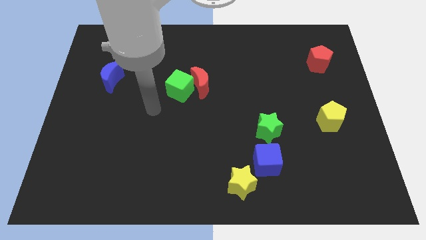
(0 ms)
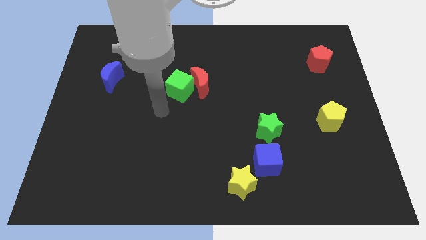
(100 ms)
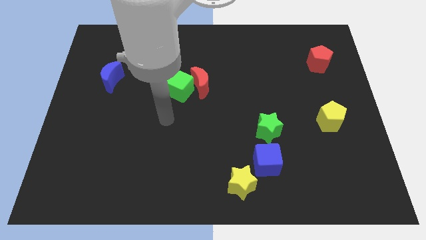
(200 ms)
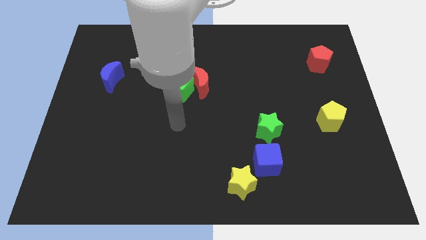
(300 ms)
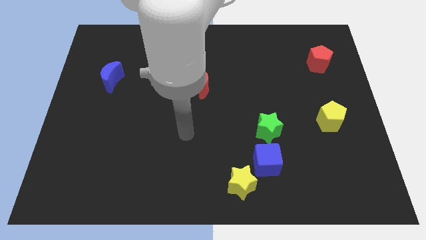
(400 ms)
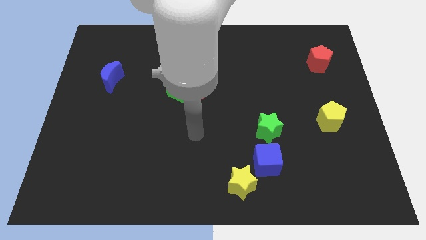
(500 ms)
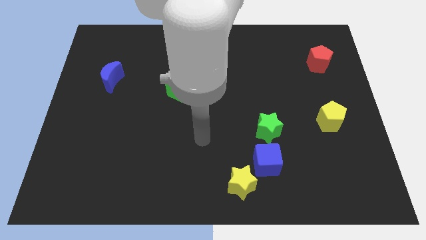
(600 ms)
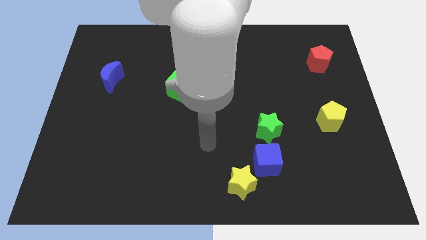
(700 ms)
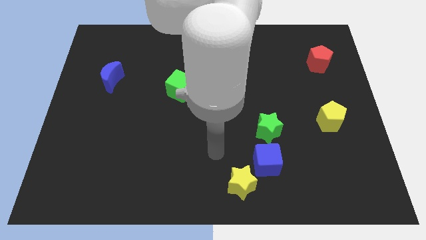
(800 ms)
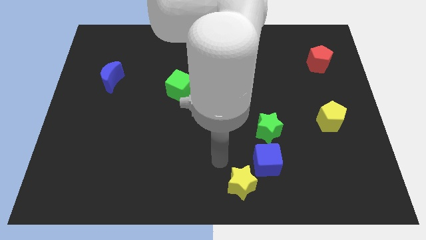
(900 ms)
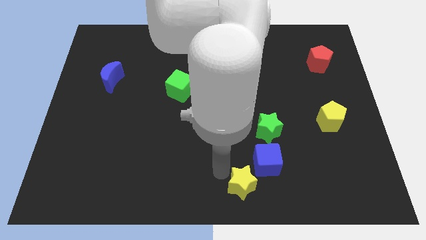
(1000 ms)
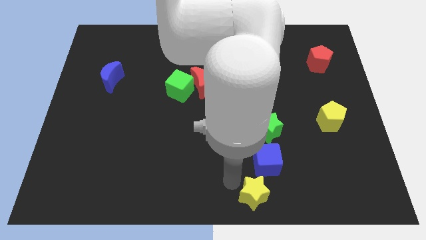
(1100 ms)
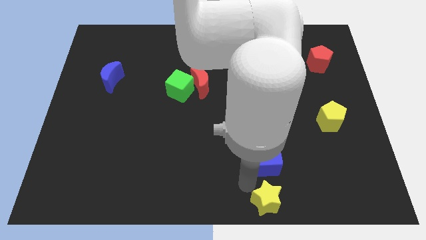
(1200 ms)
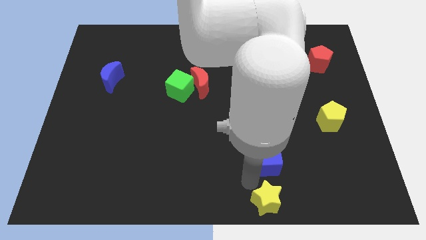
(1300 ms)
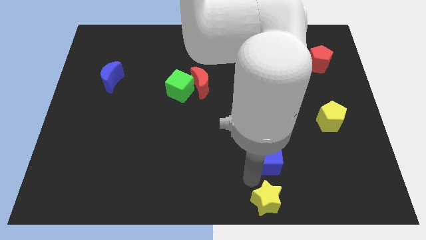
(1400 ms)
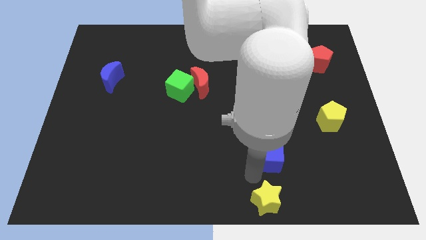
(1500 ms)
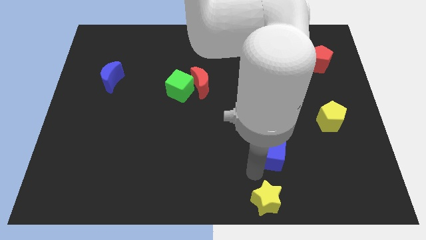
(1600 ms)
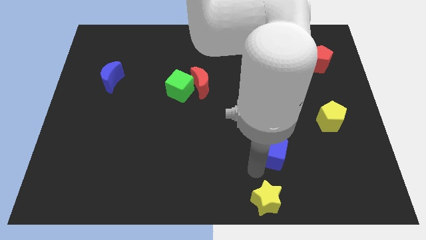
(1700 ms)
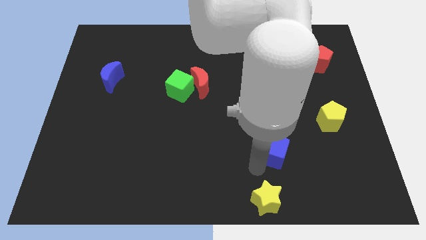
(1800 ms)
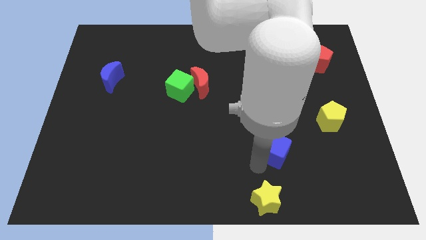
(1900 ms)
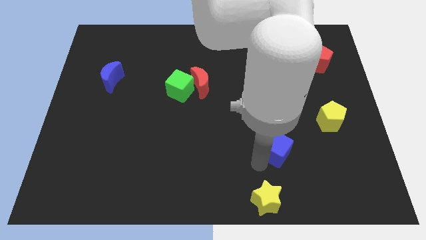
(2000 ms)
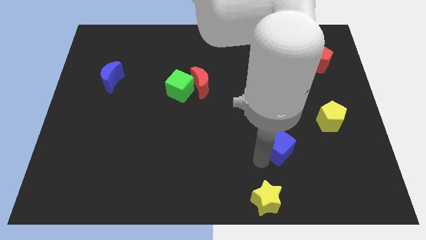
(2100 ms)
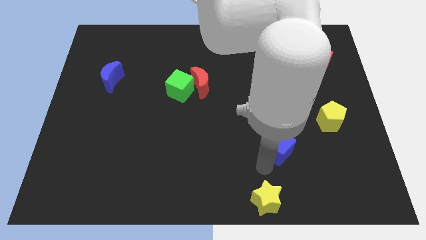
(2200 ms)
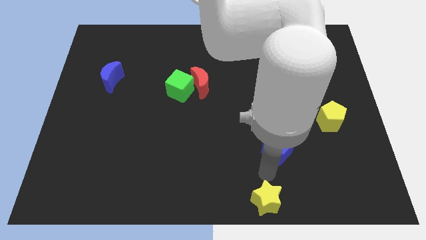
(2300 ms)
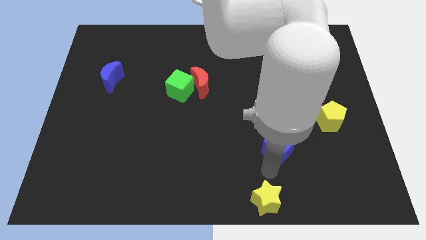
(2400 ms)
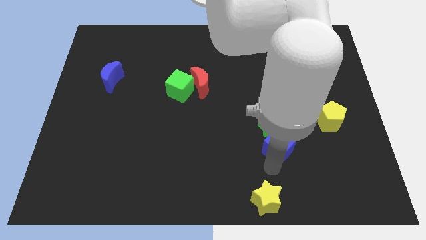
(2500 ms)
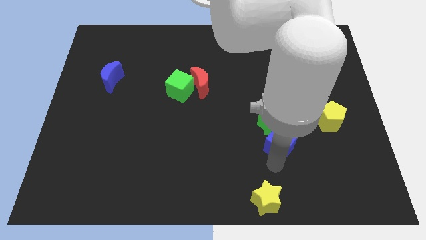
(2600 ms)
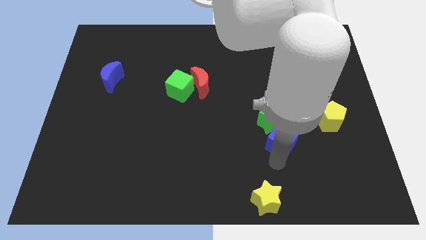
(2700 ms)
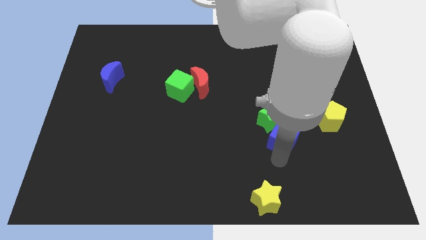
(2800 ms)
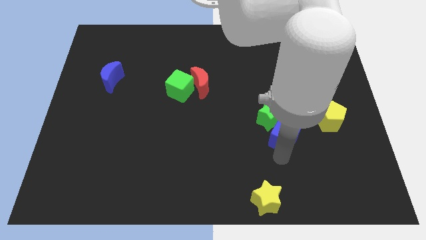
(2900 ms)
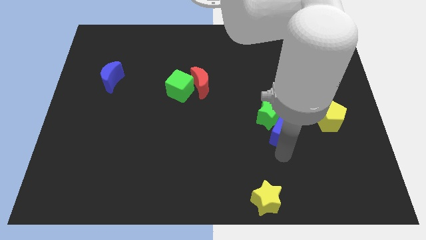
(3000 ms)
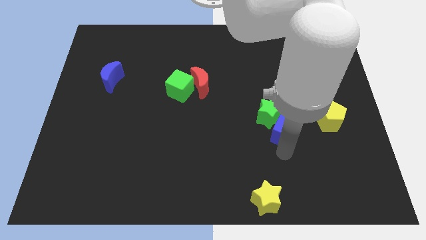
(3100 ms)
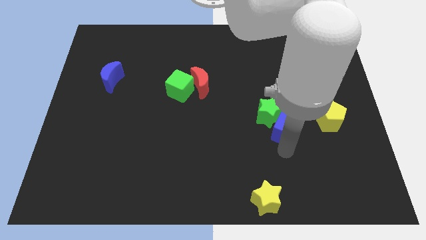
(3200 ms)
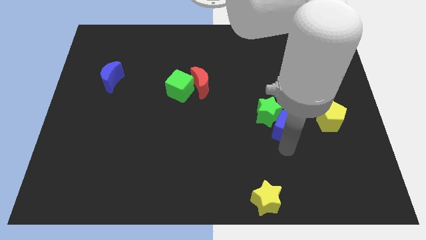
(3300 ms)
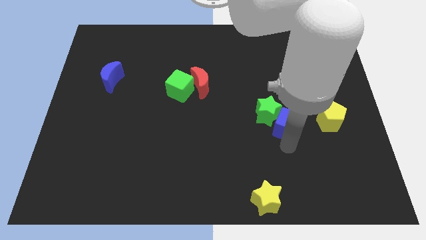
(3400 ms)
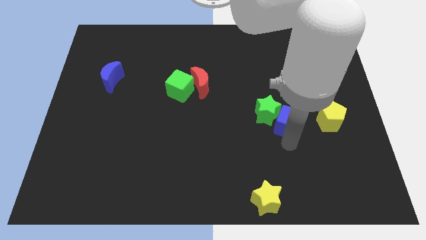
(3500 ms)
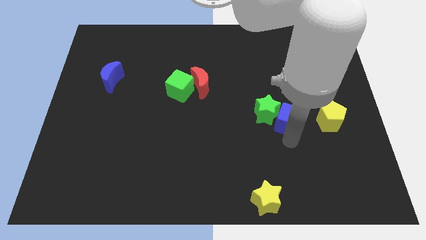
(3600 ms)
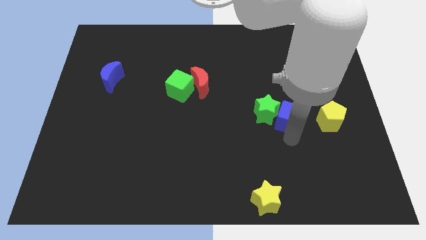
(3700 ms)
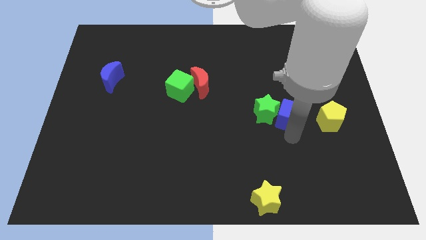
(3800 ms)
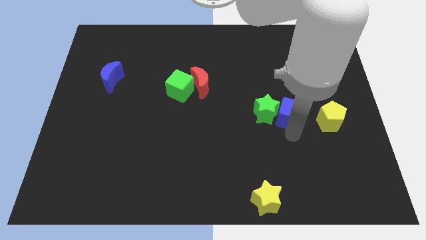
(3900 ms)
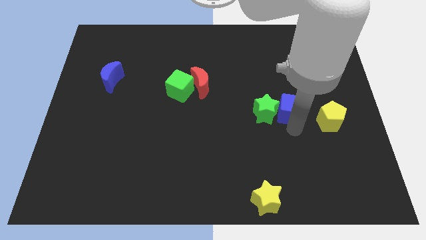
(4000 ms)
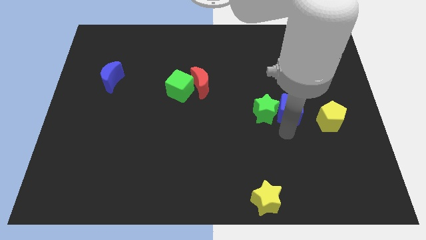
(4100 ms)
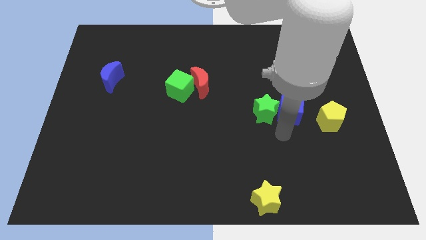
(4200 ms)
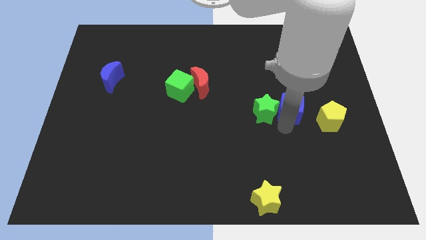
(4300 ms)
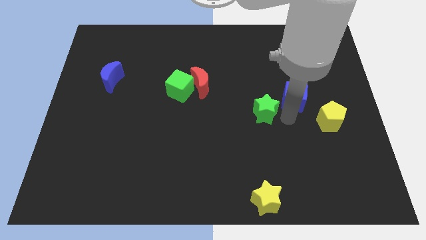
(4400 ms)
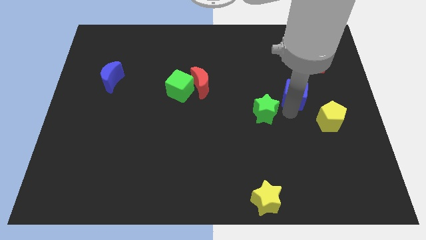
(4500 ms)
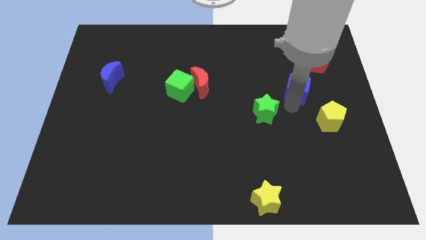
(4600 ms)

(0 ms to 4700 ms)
push the blue cube to the bottom left side of the red pentagon

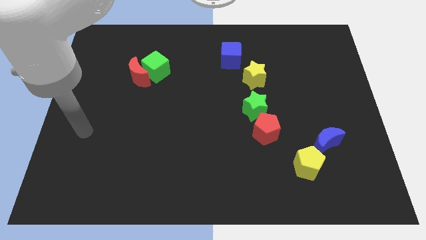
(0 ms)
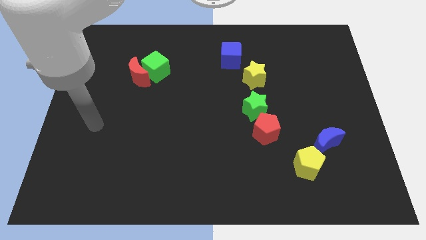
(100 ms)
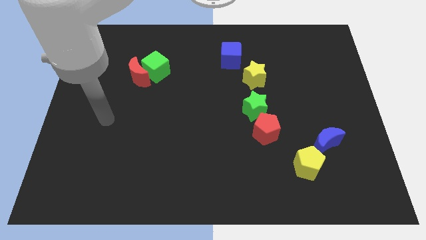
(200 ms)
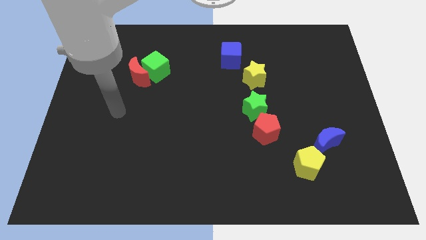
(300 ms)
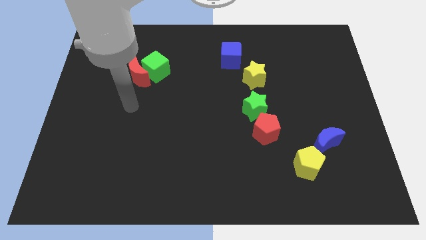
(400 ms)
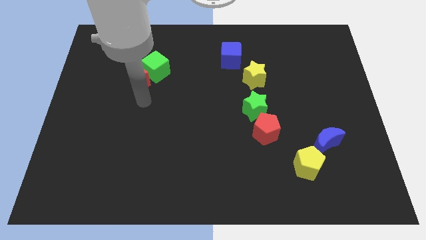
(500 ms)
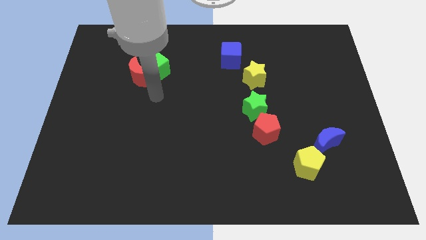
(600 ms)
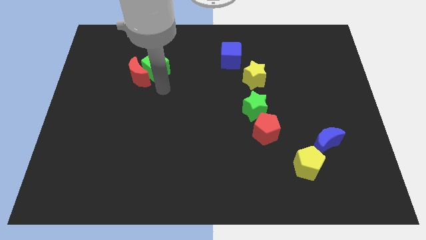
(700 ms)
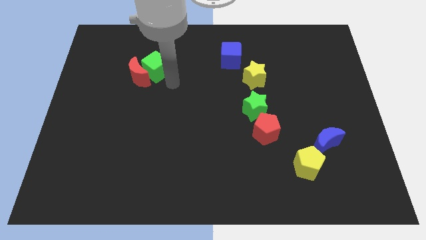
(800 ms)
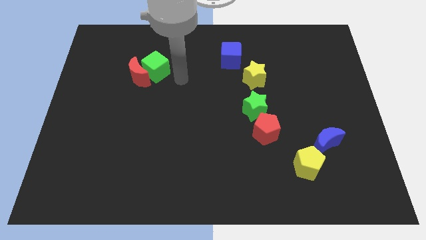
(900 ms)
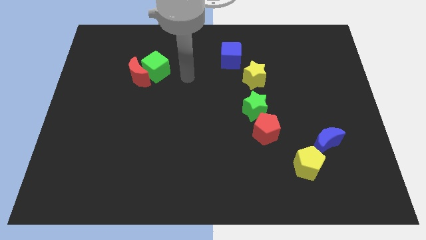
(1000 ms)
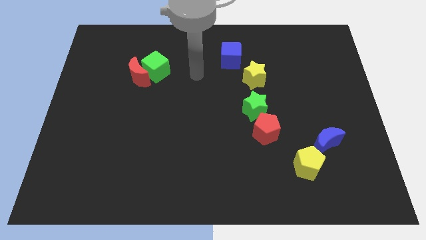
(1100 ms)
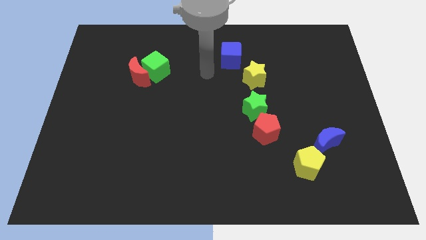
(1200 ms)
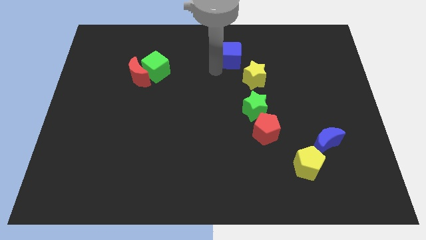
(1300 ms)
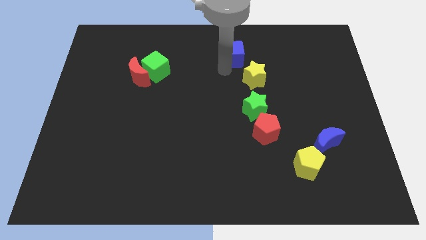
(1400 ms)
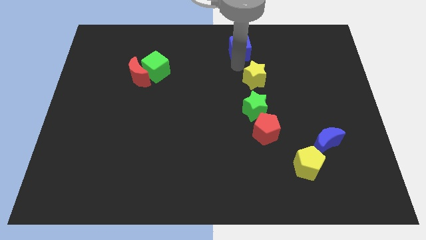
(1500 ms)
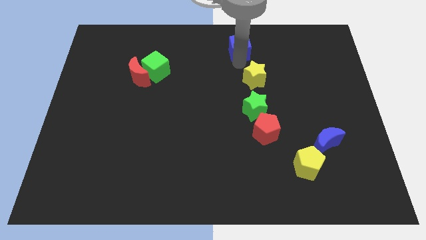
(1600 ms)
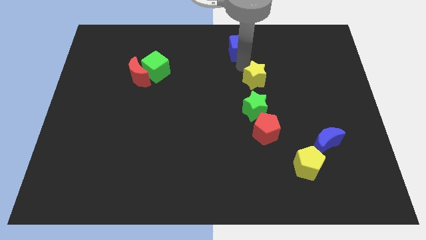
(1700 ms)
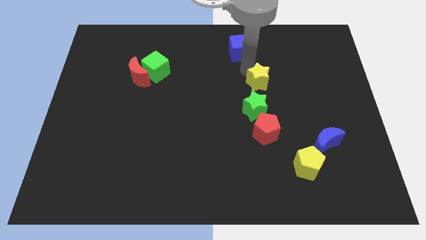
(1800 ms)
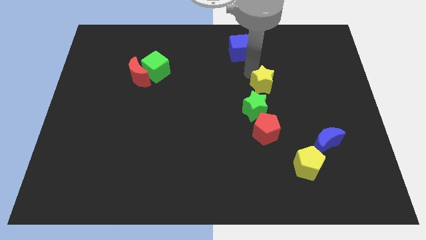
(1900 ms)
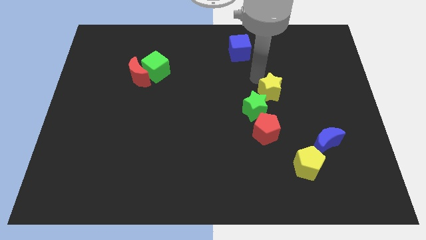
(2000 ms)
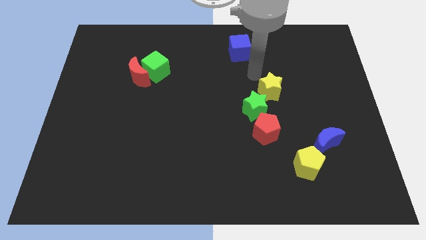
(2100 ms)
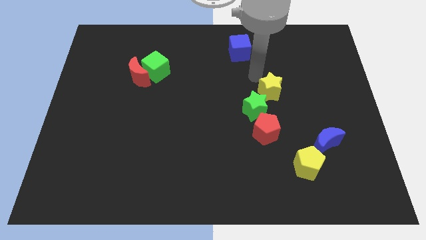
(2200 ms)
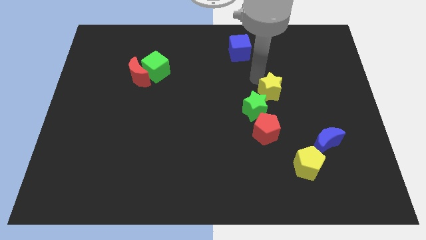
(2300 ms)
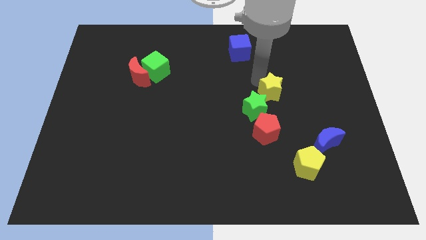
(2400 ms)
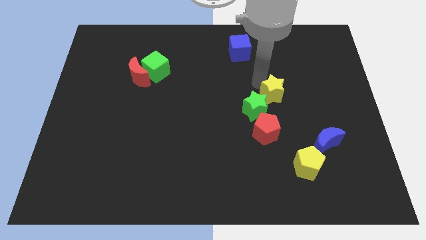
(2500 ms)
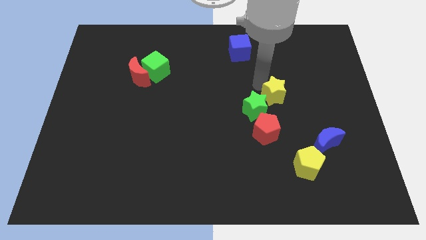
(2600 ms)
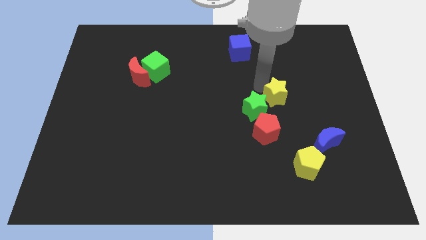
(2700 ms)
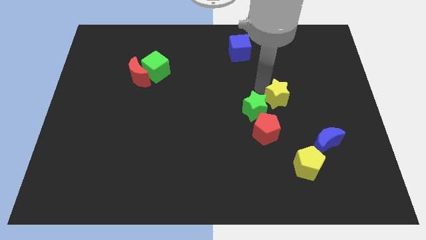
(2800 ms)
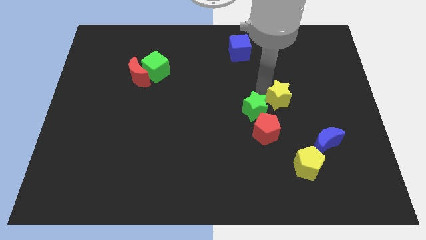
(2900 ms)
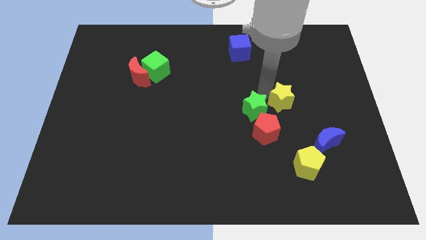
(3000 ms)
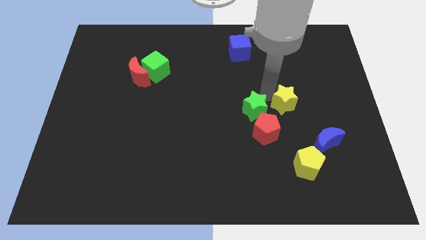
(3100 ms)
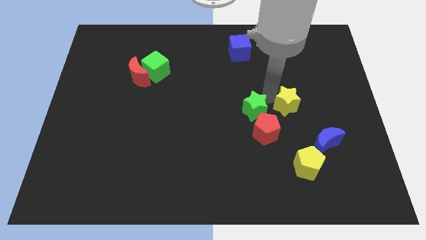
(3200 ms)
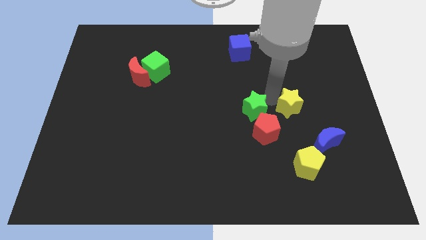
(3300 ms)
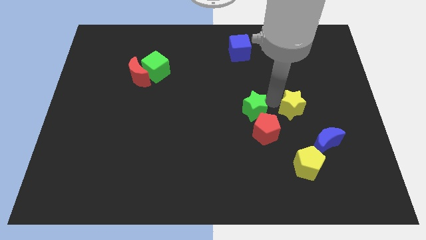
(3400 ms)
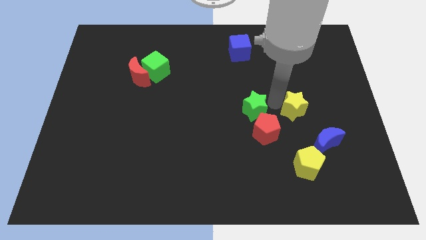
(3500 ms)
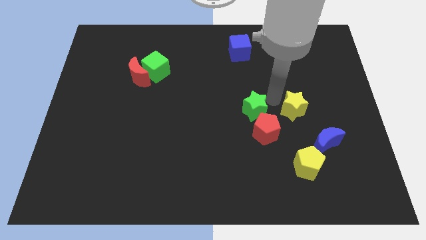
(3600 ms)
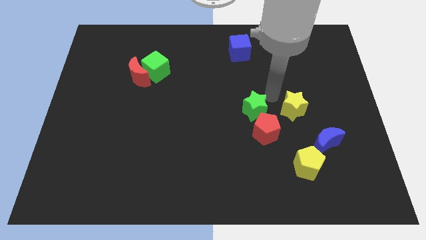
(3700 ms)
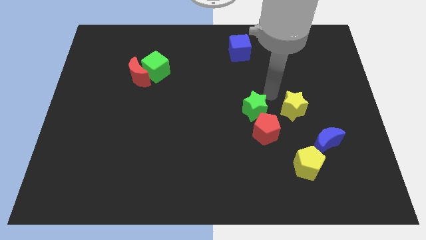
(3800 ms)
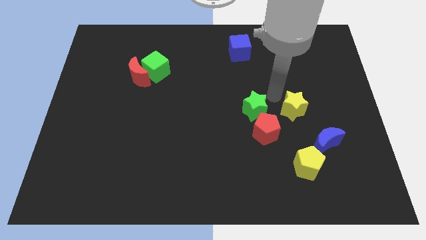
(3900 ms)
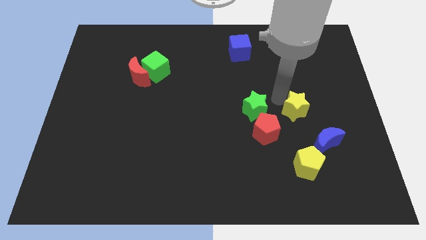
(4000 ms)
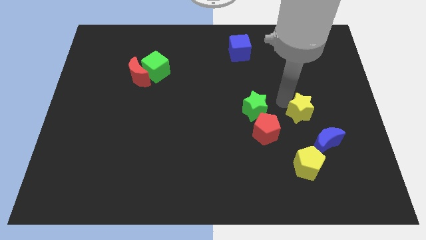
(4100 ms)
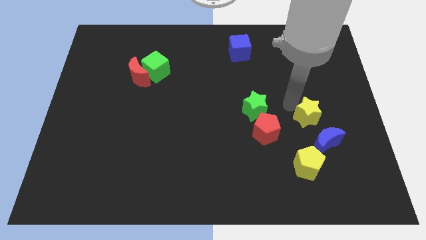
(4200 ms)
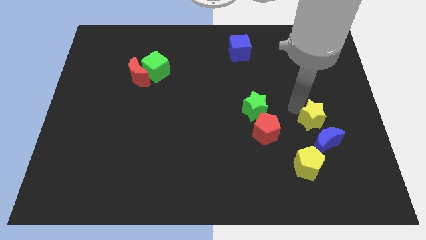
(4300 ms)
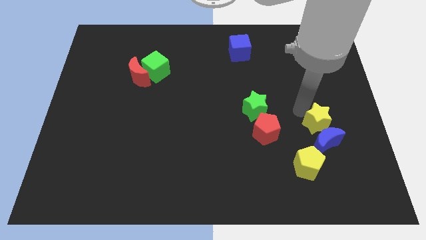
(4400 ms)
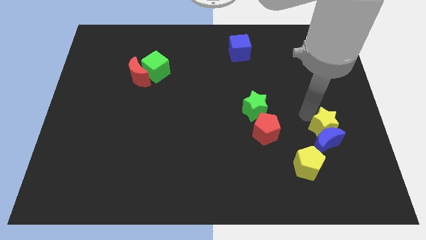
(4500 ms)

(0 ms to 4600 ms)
move the yellow star to the top right of the yellow pentagon
